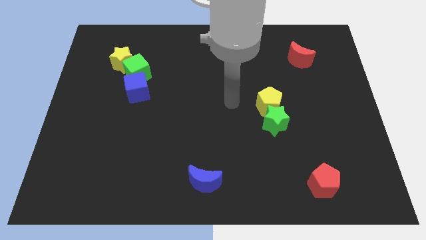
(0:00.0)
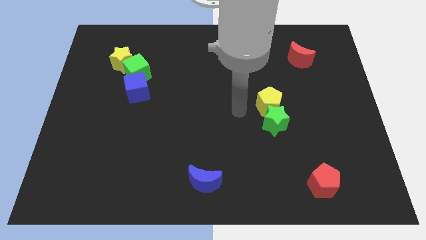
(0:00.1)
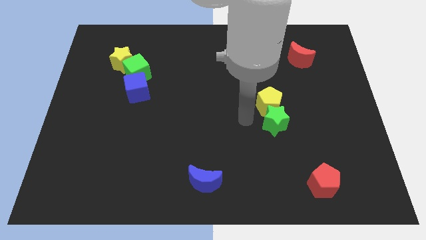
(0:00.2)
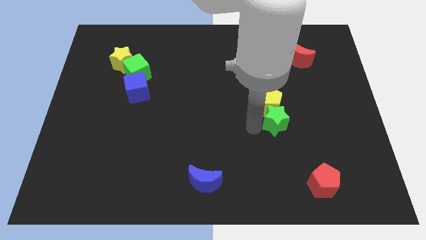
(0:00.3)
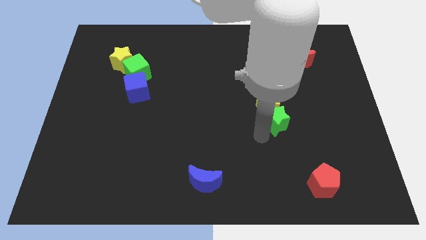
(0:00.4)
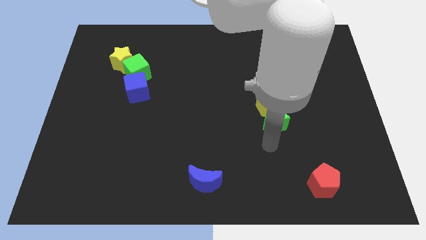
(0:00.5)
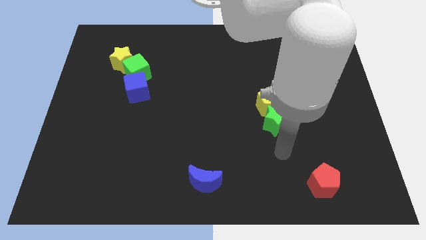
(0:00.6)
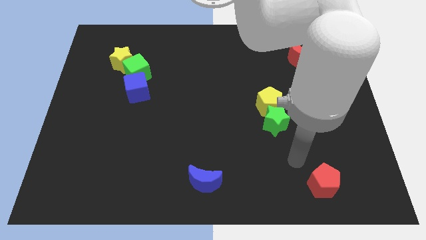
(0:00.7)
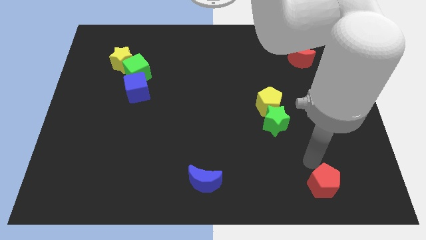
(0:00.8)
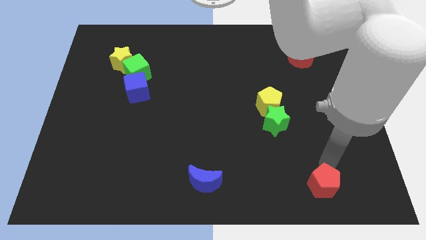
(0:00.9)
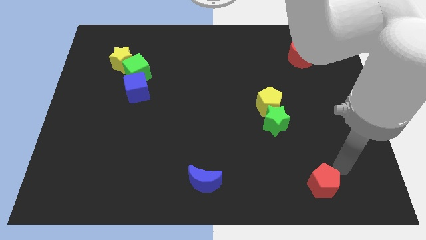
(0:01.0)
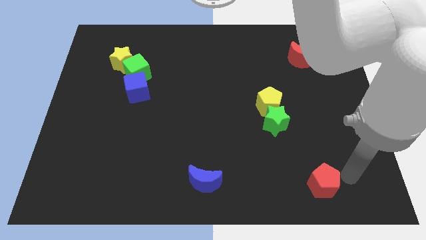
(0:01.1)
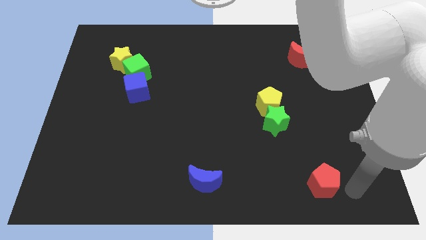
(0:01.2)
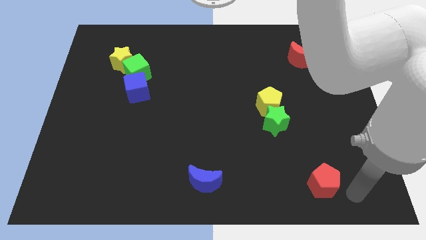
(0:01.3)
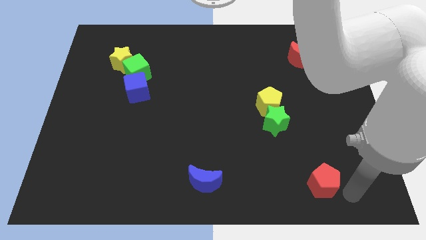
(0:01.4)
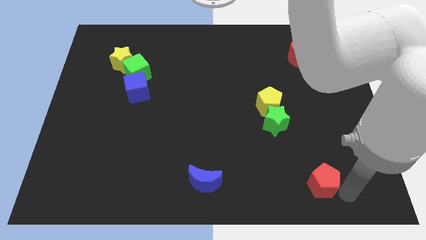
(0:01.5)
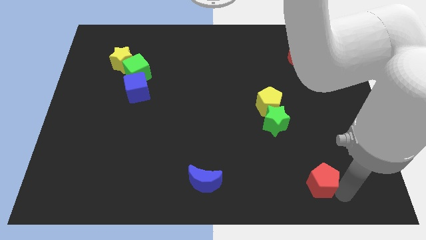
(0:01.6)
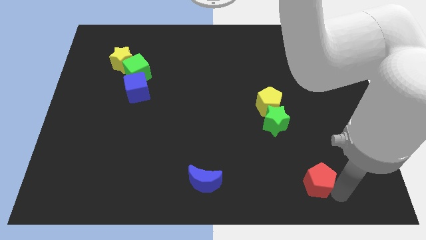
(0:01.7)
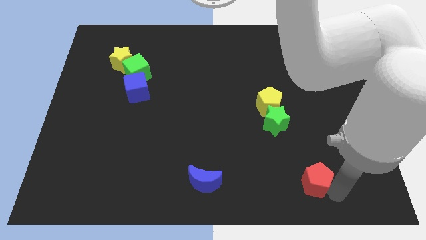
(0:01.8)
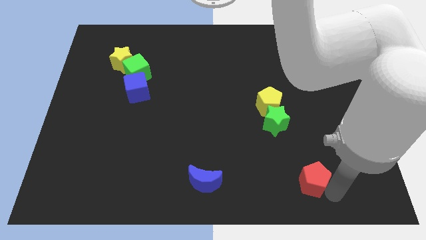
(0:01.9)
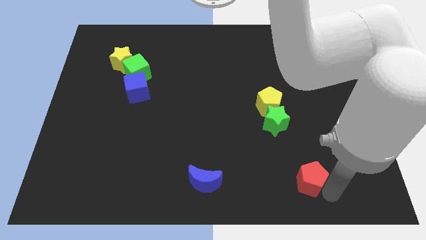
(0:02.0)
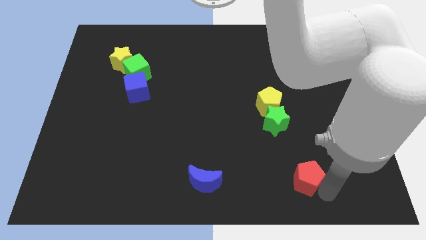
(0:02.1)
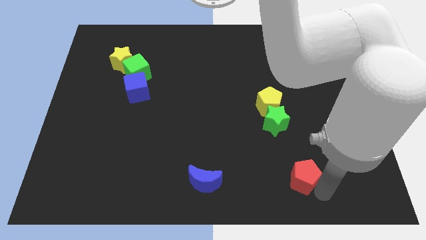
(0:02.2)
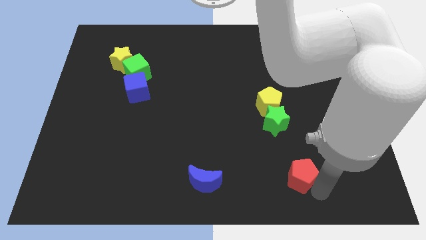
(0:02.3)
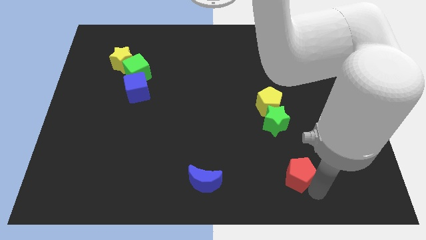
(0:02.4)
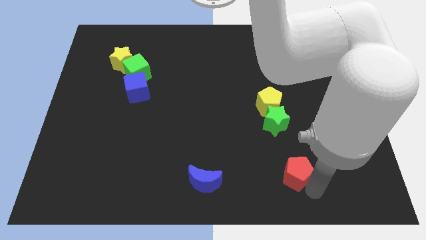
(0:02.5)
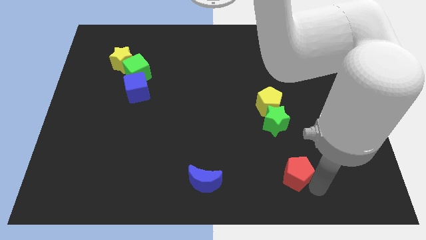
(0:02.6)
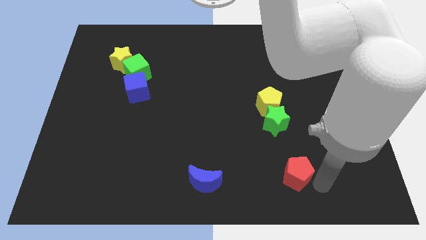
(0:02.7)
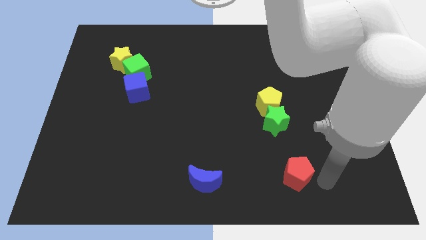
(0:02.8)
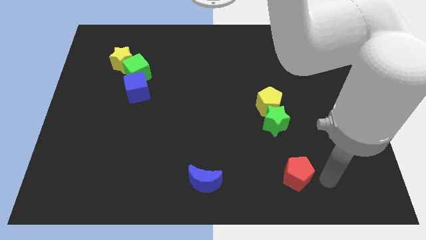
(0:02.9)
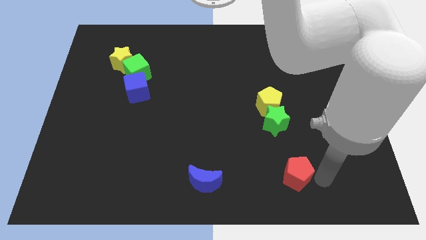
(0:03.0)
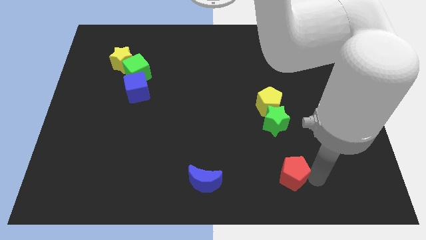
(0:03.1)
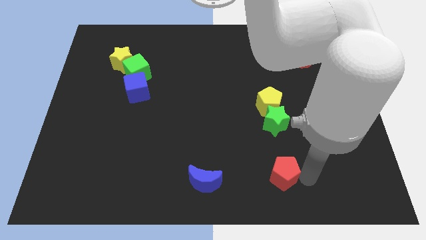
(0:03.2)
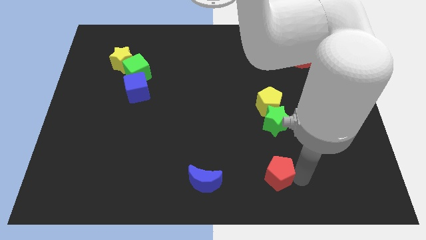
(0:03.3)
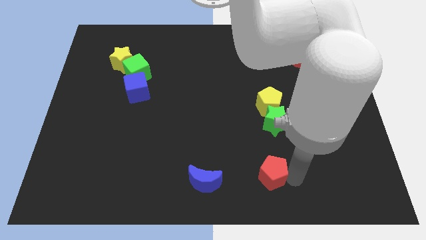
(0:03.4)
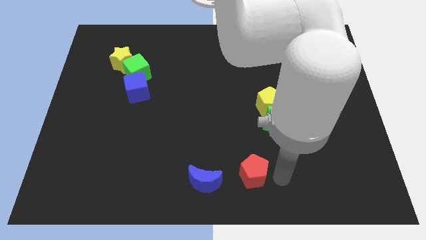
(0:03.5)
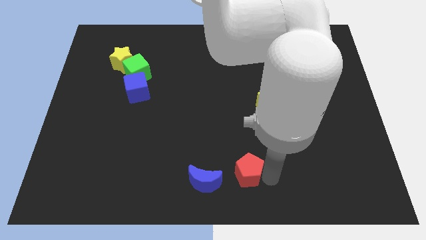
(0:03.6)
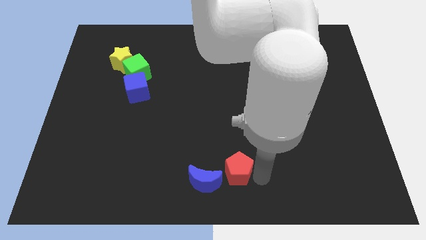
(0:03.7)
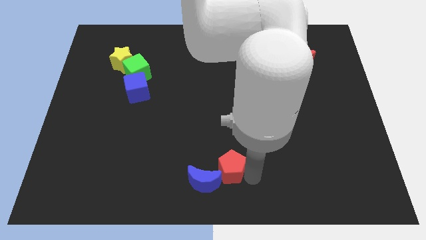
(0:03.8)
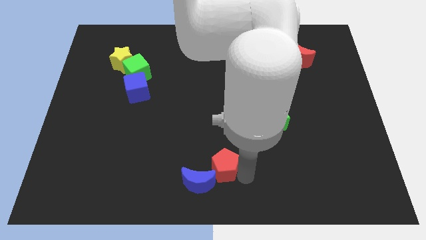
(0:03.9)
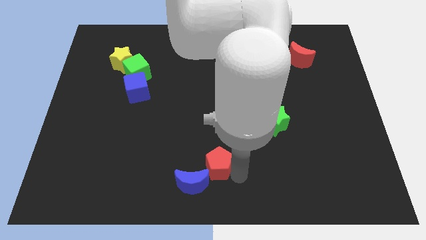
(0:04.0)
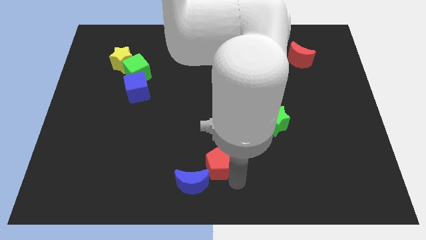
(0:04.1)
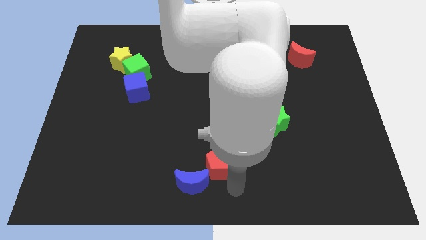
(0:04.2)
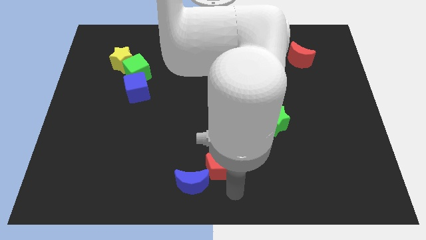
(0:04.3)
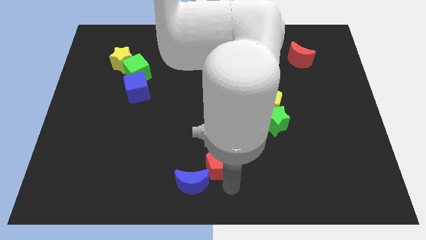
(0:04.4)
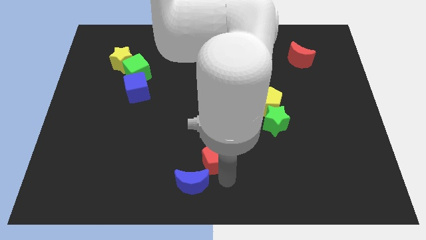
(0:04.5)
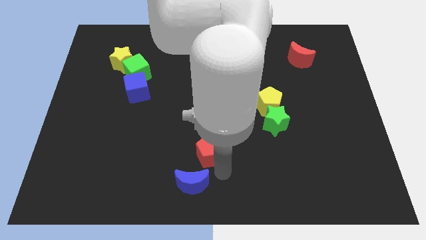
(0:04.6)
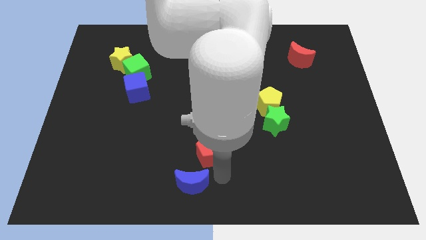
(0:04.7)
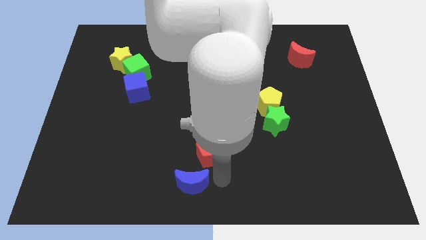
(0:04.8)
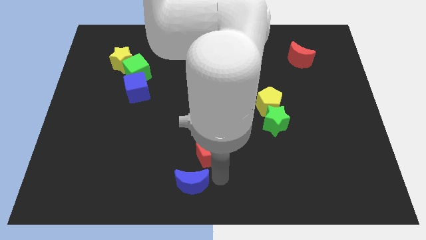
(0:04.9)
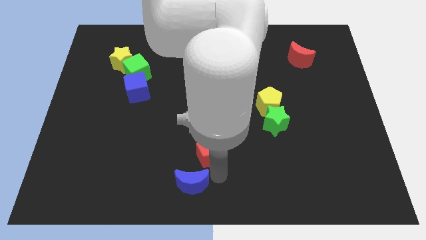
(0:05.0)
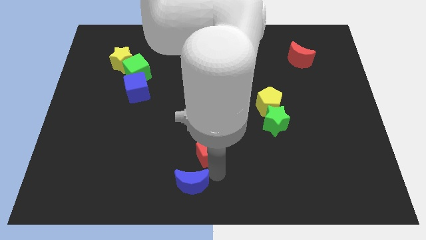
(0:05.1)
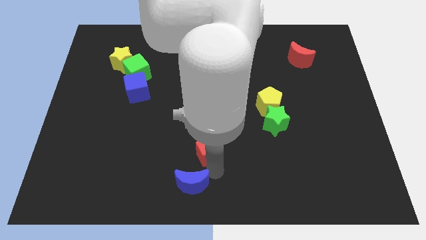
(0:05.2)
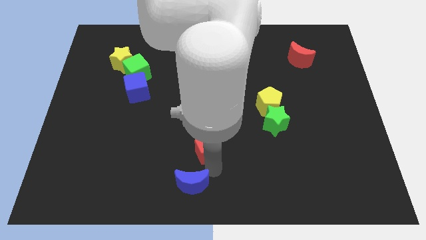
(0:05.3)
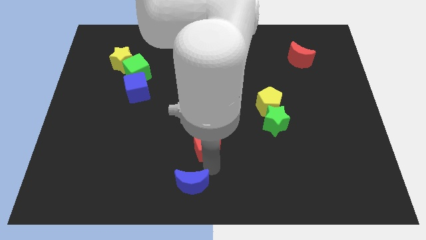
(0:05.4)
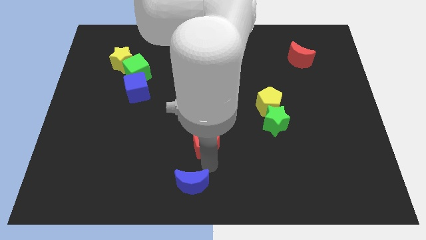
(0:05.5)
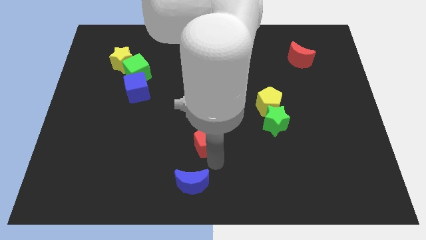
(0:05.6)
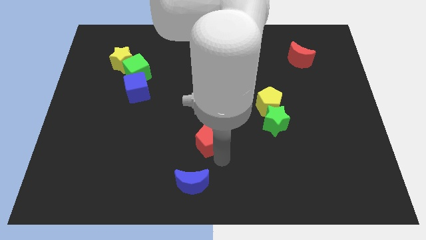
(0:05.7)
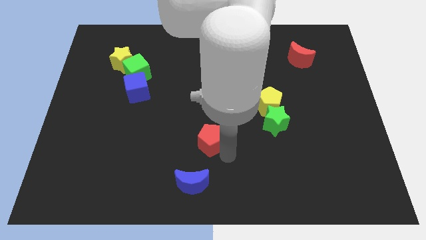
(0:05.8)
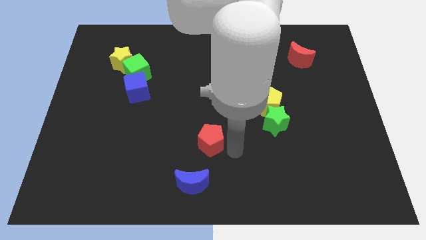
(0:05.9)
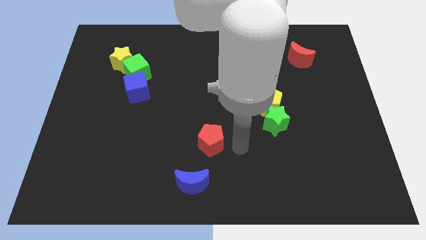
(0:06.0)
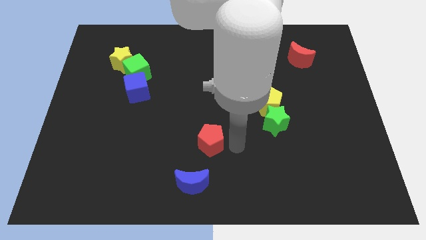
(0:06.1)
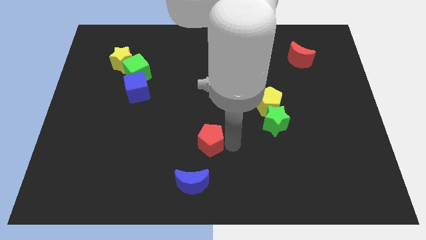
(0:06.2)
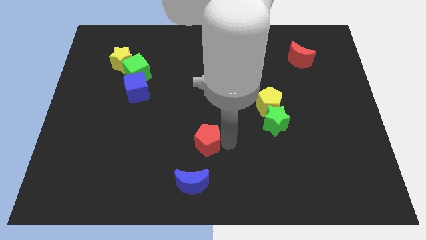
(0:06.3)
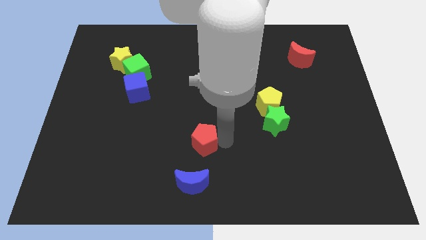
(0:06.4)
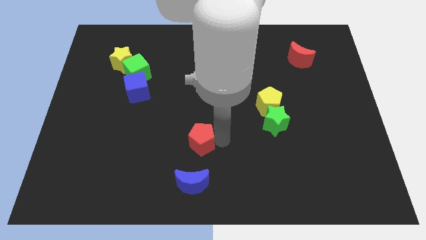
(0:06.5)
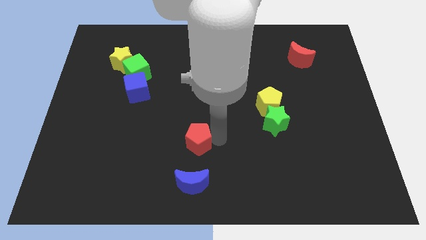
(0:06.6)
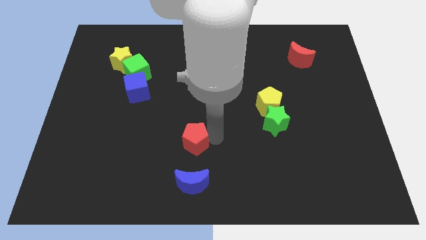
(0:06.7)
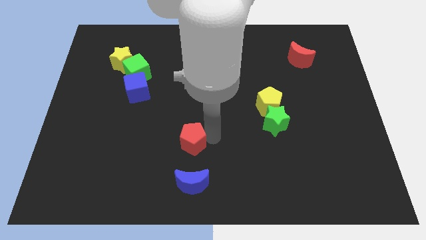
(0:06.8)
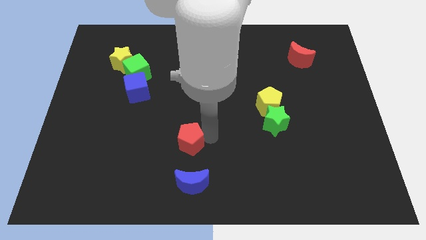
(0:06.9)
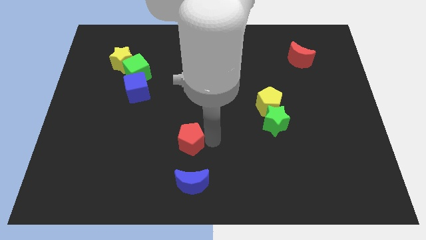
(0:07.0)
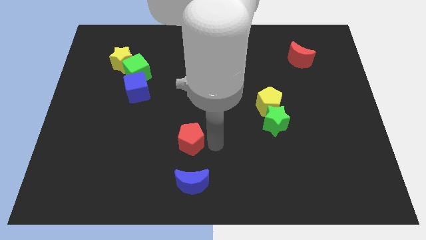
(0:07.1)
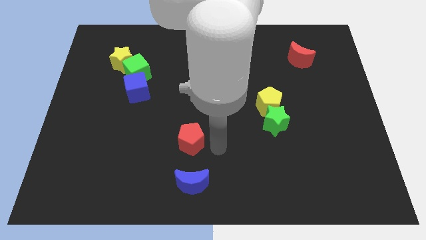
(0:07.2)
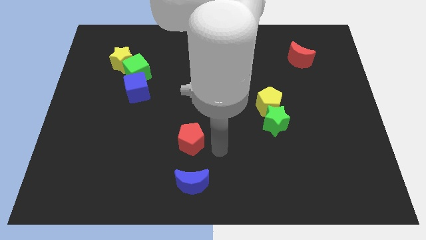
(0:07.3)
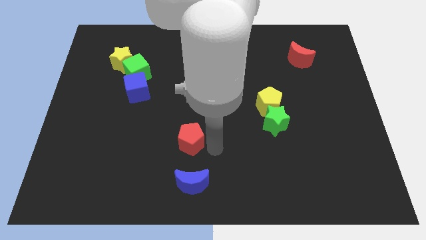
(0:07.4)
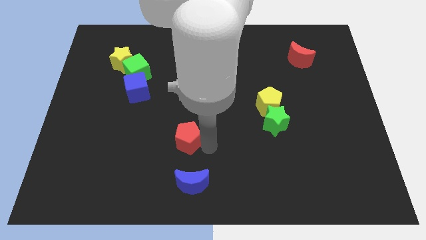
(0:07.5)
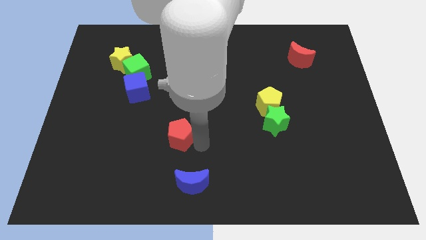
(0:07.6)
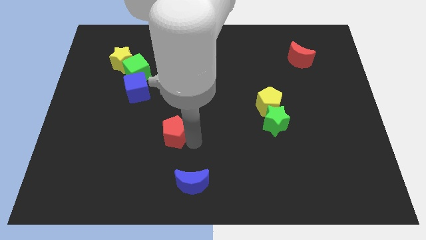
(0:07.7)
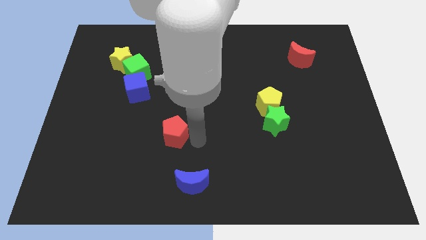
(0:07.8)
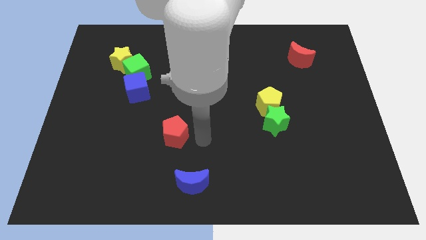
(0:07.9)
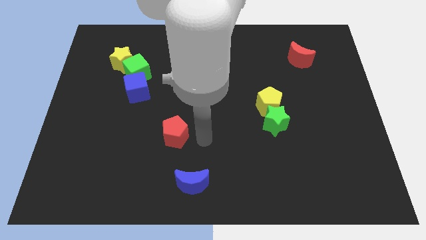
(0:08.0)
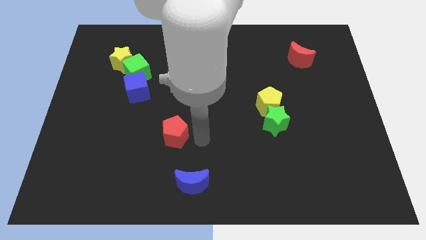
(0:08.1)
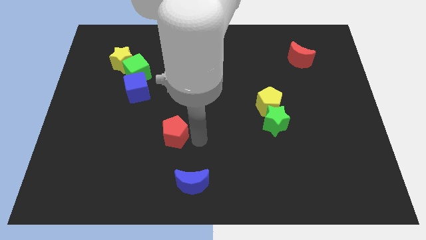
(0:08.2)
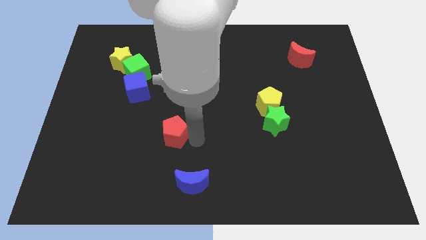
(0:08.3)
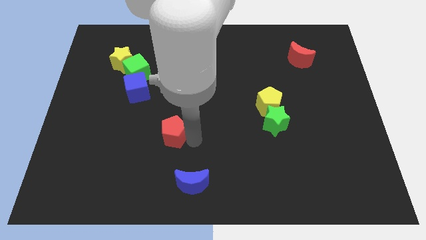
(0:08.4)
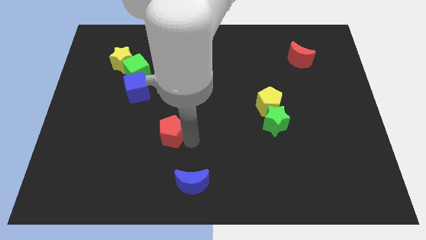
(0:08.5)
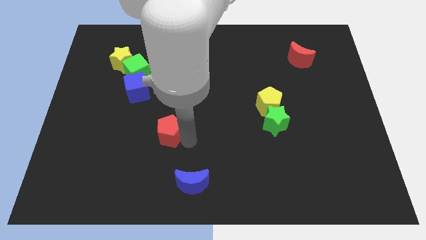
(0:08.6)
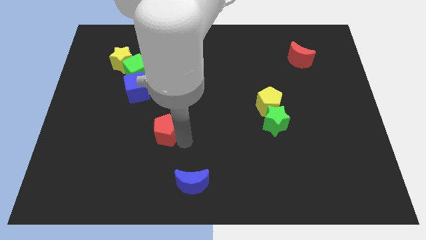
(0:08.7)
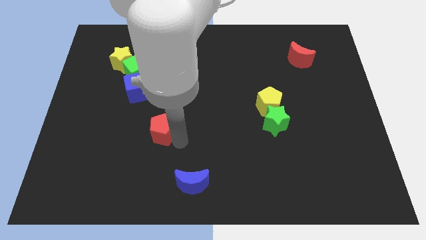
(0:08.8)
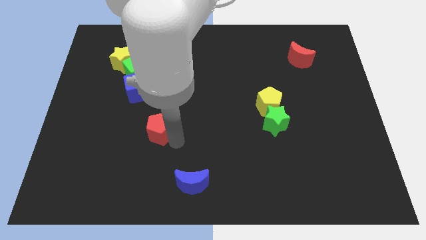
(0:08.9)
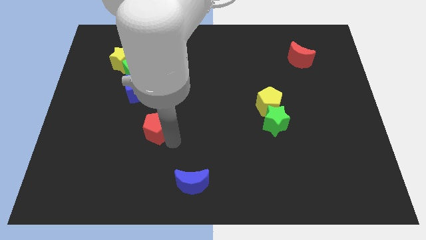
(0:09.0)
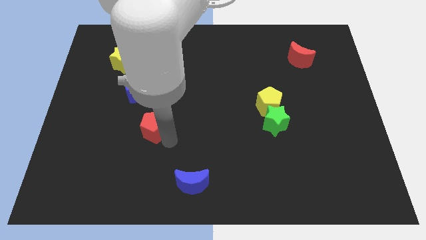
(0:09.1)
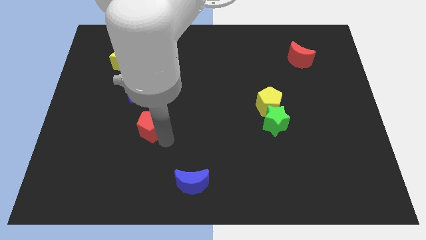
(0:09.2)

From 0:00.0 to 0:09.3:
push the red pentagon below the blue cube
